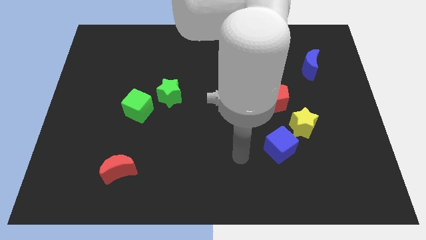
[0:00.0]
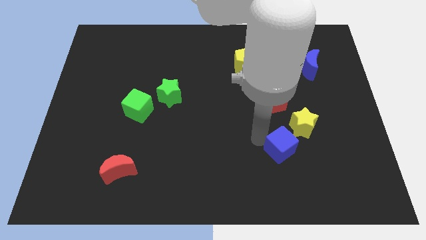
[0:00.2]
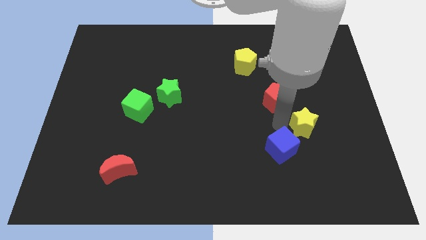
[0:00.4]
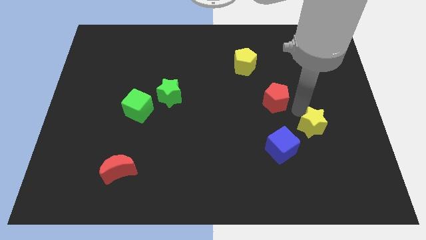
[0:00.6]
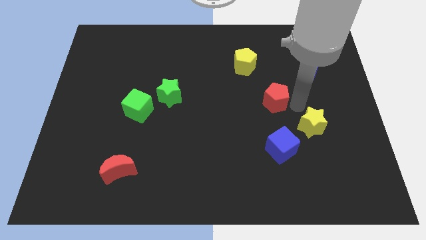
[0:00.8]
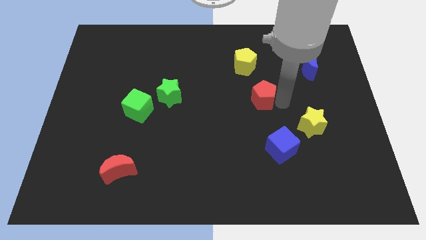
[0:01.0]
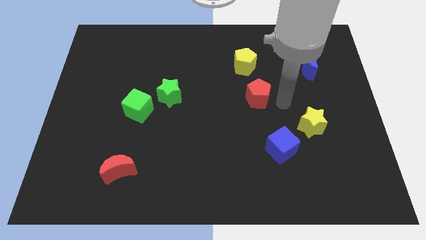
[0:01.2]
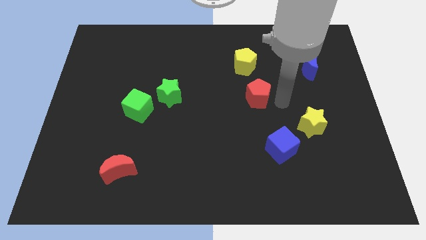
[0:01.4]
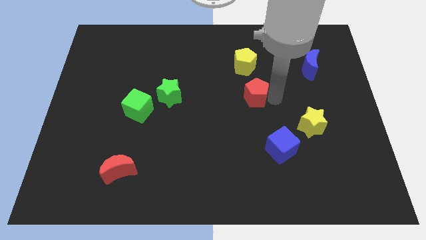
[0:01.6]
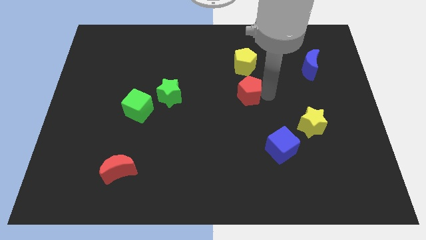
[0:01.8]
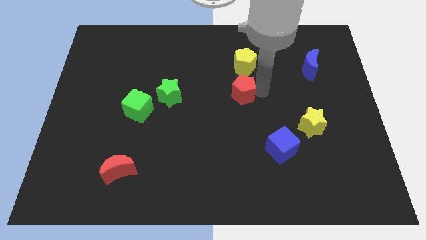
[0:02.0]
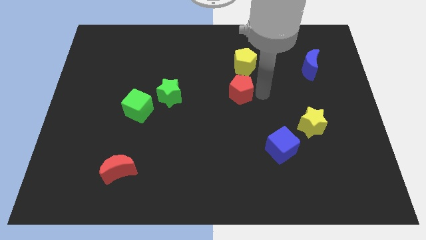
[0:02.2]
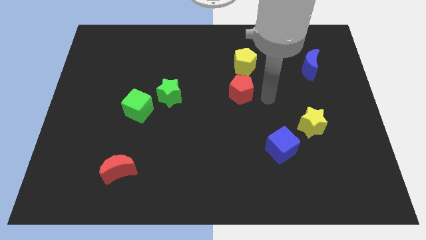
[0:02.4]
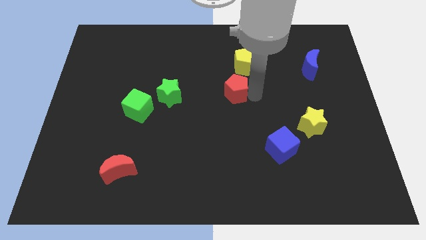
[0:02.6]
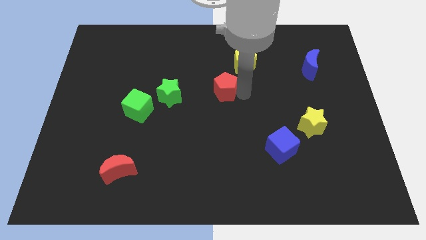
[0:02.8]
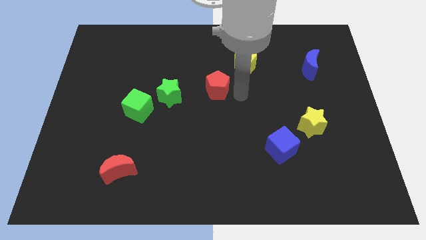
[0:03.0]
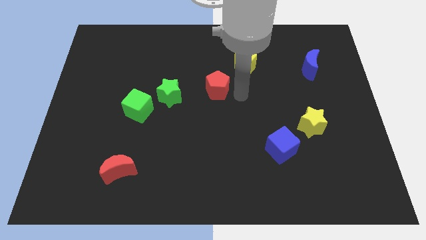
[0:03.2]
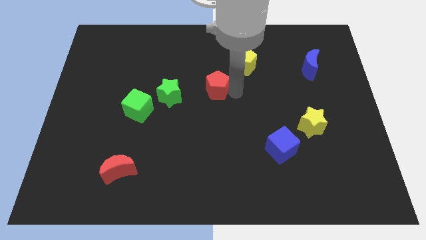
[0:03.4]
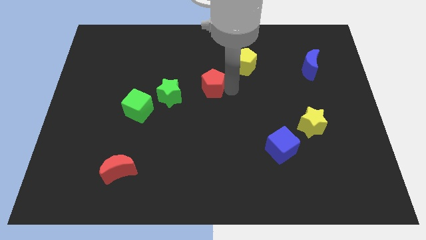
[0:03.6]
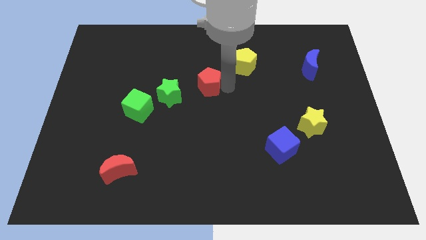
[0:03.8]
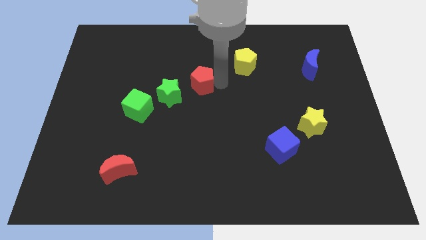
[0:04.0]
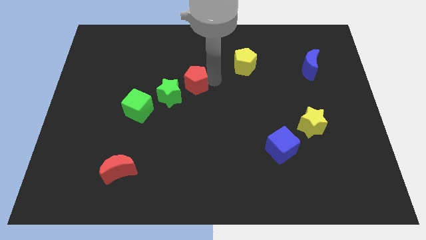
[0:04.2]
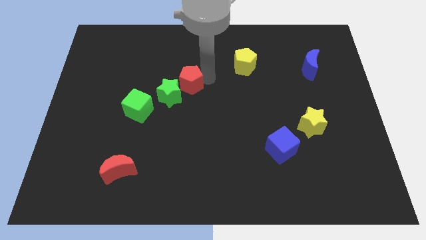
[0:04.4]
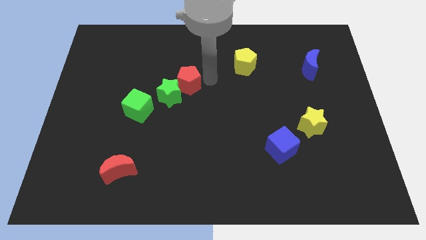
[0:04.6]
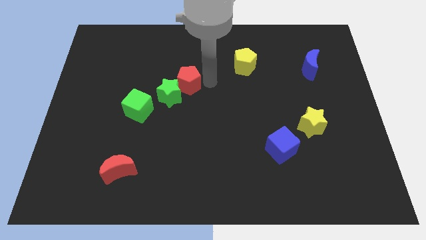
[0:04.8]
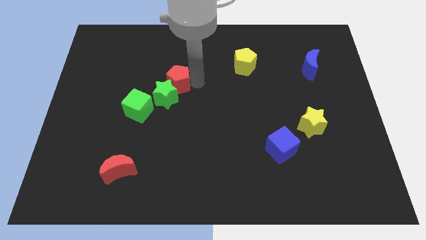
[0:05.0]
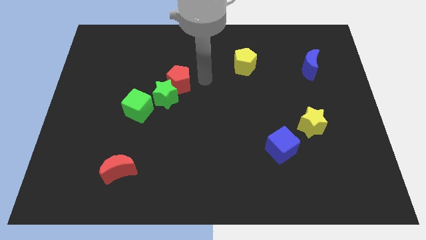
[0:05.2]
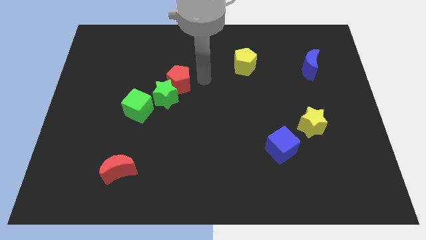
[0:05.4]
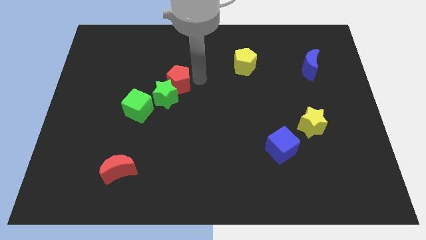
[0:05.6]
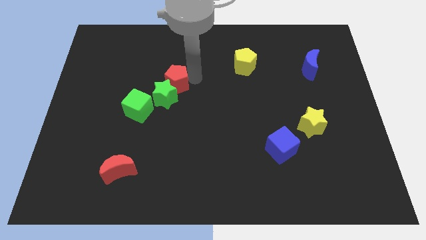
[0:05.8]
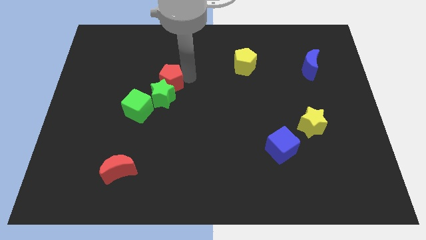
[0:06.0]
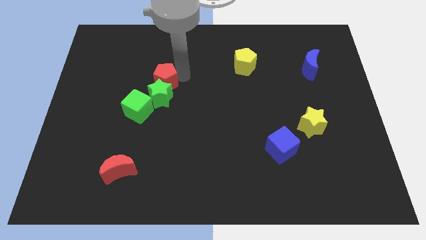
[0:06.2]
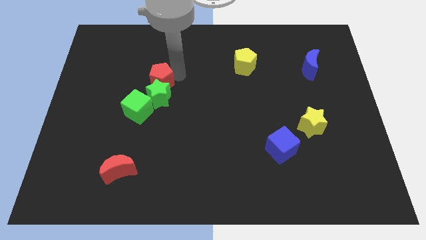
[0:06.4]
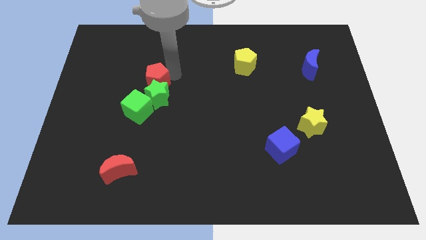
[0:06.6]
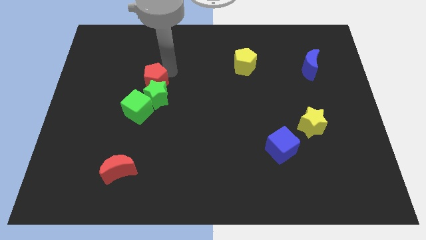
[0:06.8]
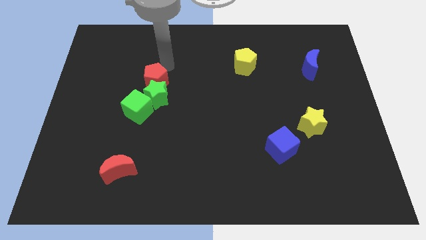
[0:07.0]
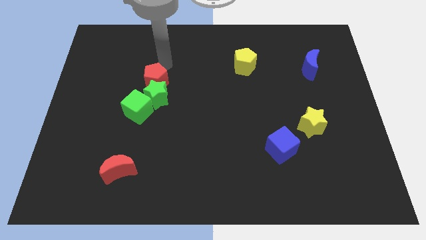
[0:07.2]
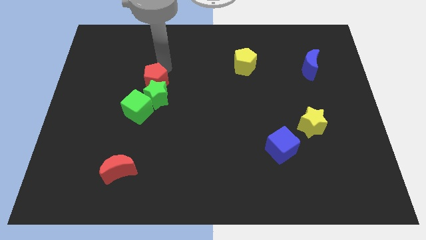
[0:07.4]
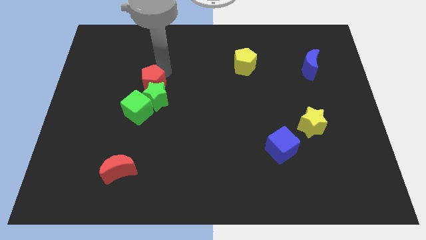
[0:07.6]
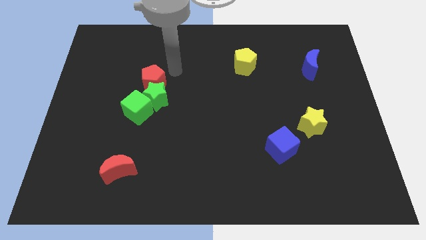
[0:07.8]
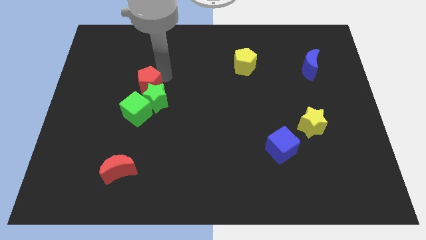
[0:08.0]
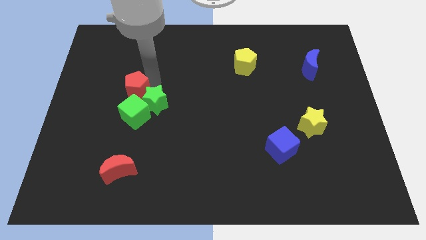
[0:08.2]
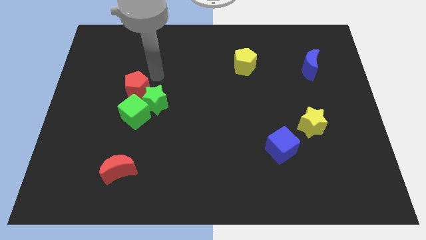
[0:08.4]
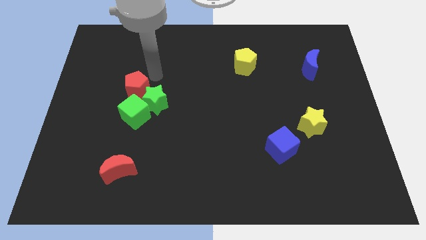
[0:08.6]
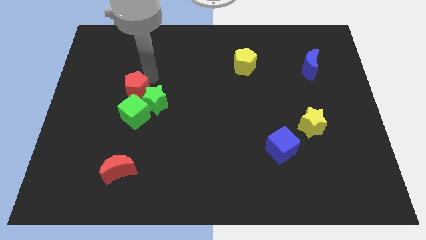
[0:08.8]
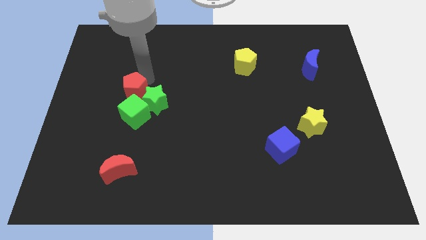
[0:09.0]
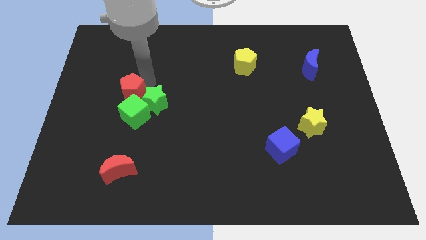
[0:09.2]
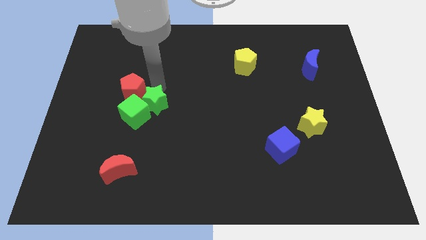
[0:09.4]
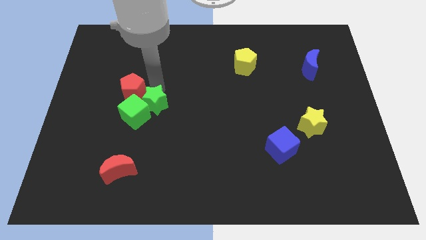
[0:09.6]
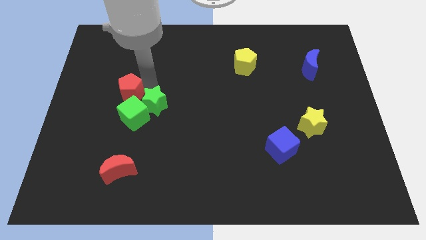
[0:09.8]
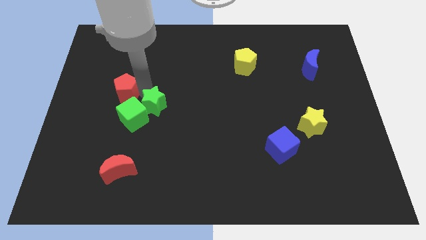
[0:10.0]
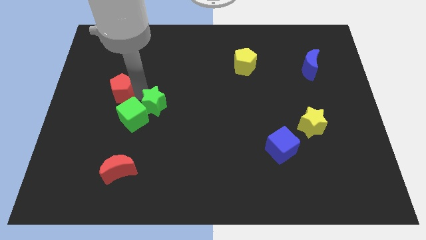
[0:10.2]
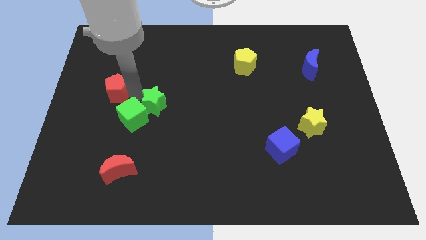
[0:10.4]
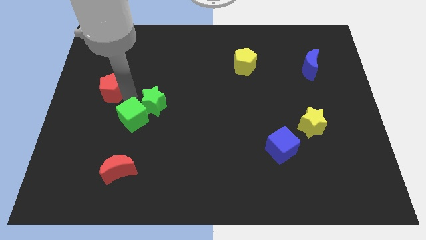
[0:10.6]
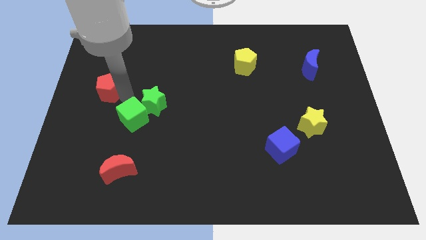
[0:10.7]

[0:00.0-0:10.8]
push the red pentagon to the left side
